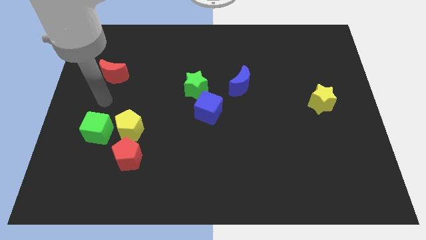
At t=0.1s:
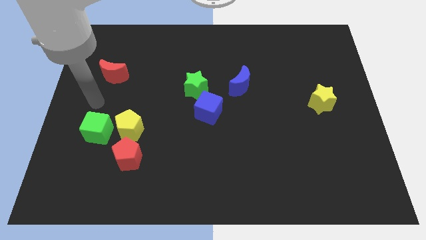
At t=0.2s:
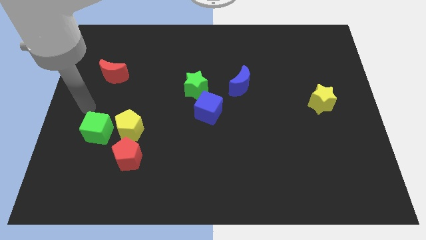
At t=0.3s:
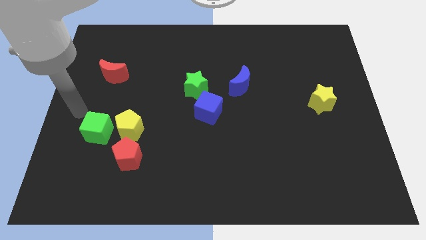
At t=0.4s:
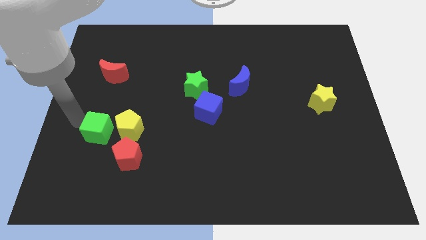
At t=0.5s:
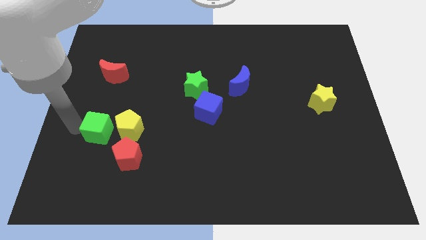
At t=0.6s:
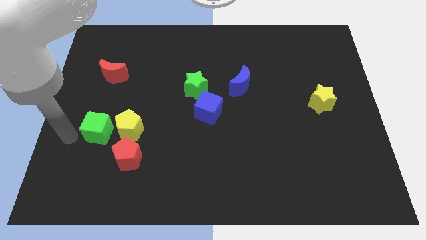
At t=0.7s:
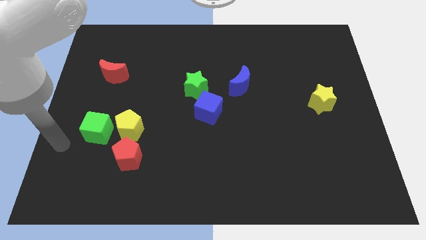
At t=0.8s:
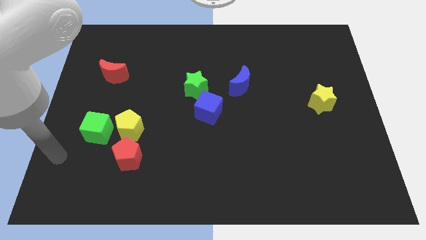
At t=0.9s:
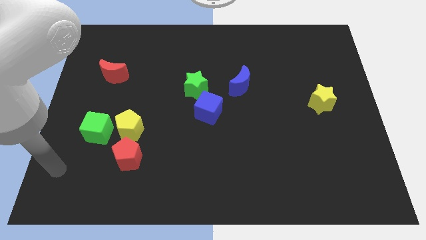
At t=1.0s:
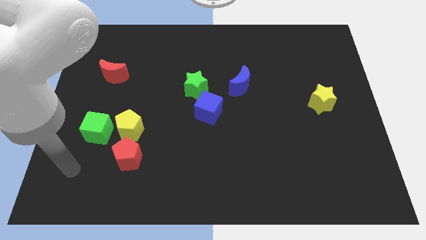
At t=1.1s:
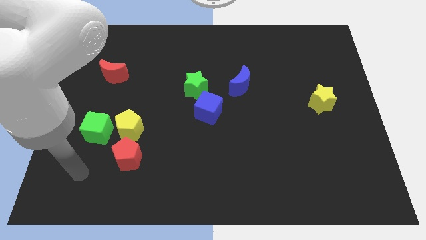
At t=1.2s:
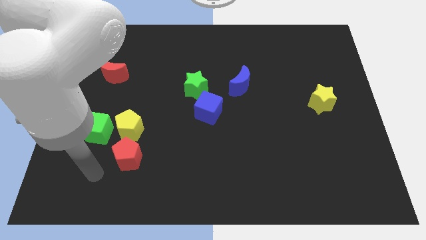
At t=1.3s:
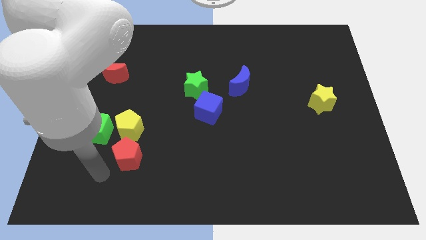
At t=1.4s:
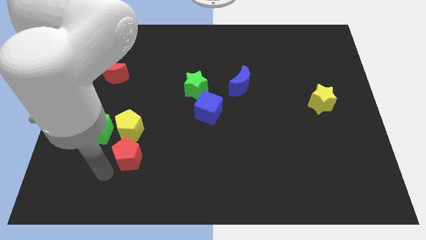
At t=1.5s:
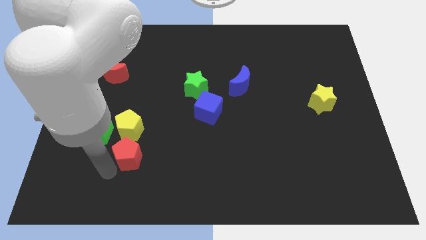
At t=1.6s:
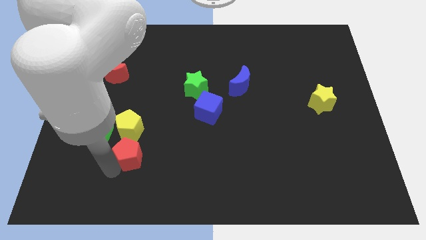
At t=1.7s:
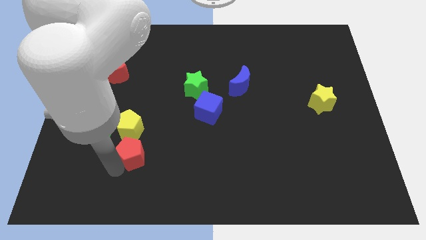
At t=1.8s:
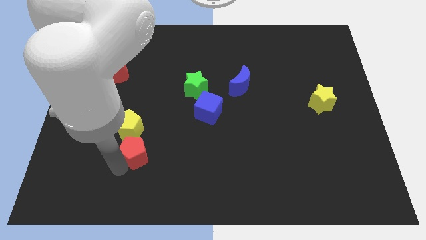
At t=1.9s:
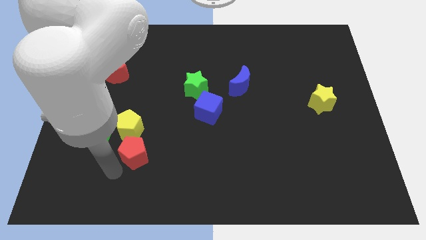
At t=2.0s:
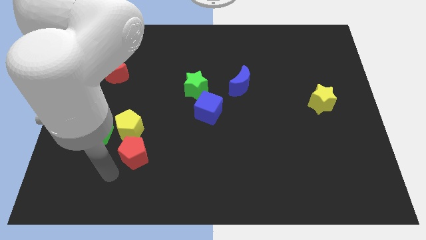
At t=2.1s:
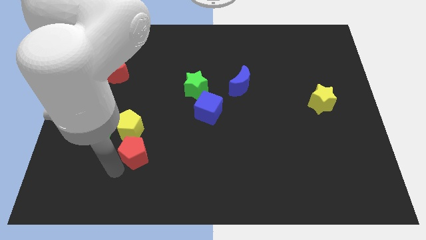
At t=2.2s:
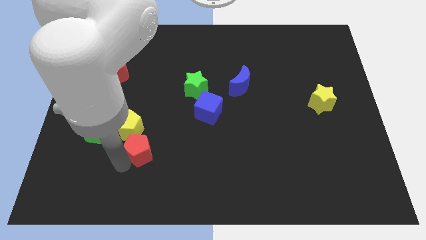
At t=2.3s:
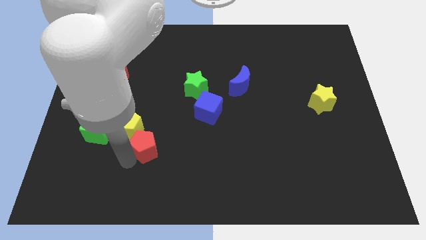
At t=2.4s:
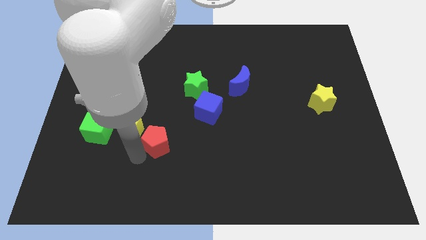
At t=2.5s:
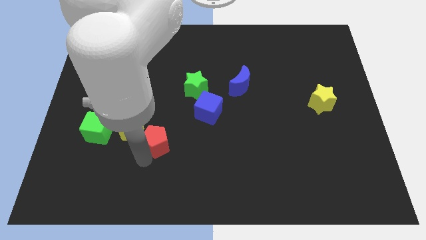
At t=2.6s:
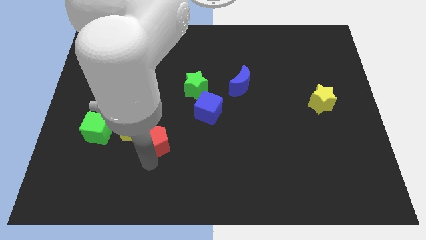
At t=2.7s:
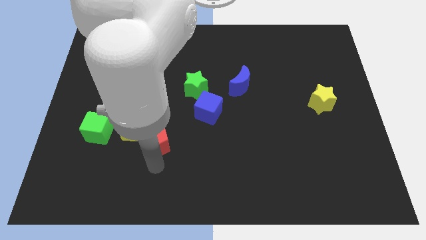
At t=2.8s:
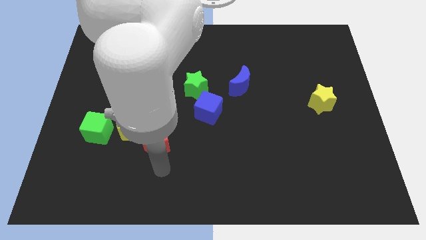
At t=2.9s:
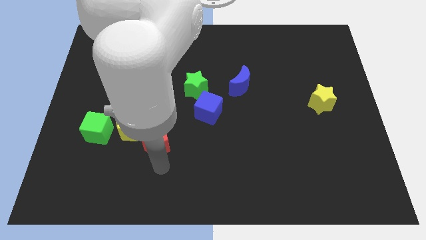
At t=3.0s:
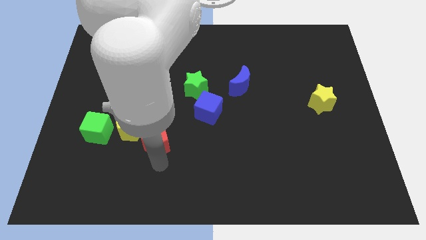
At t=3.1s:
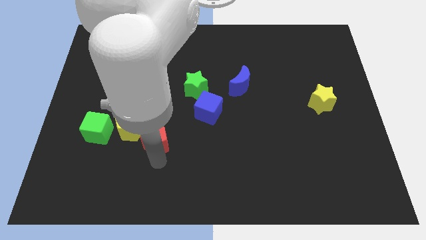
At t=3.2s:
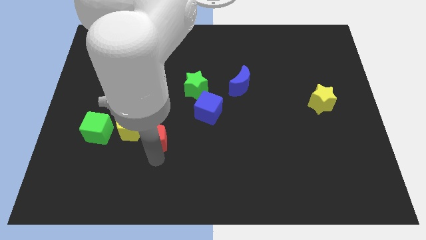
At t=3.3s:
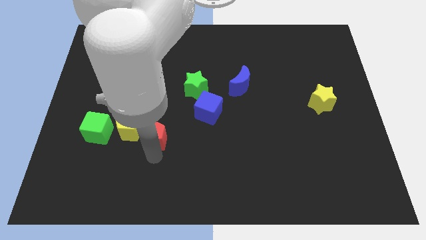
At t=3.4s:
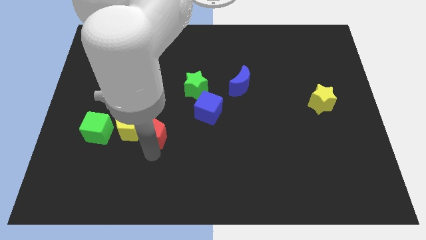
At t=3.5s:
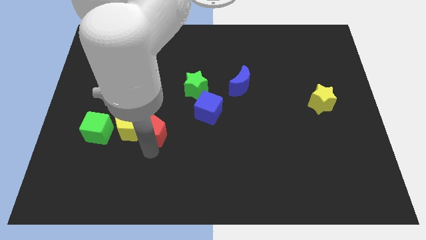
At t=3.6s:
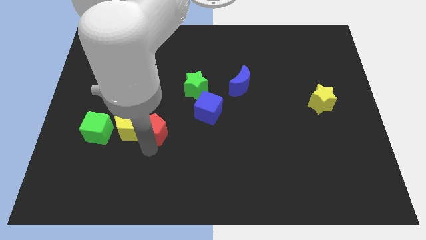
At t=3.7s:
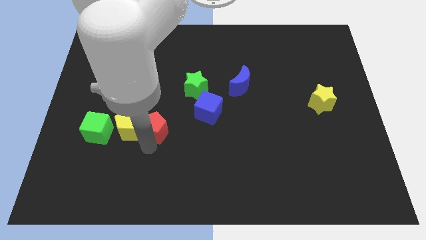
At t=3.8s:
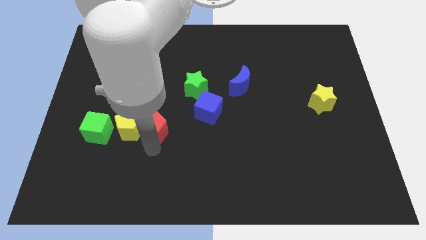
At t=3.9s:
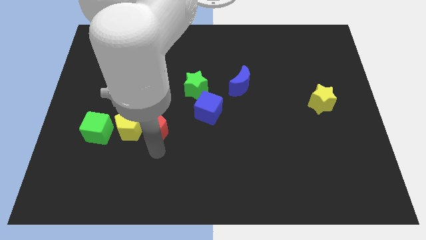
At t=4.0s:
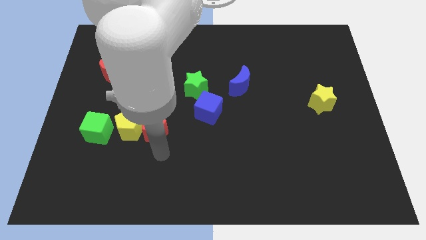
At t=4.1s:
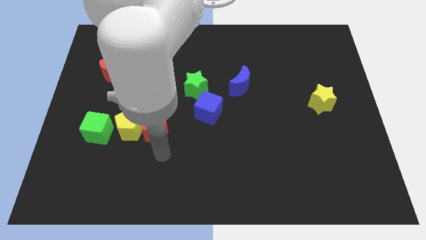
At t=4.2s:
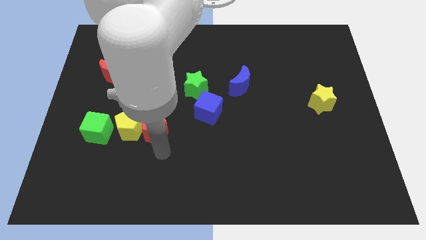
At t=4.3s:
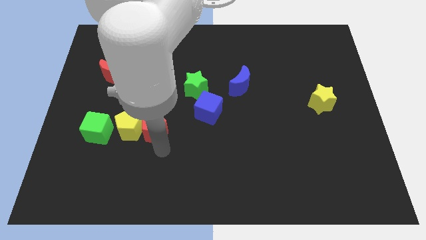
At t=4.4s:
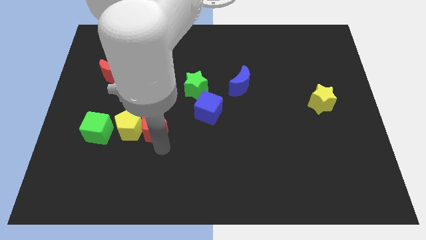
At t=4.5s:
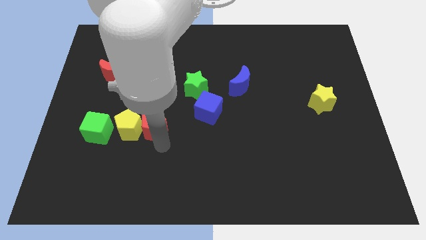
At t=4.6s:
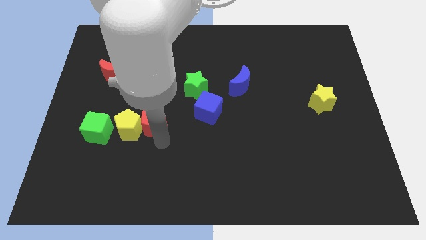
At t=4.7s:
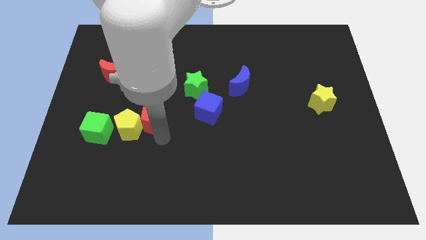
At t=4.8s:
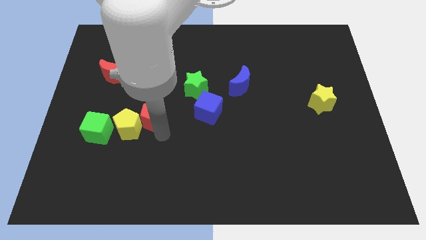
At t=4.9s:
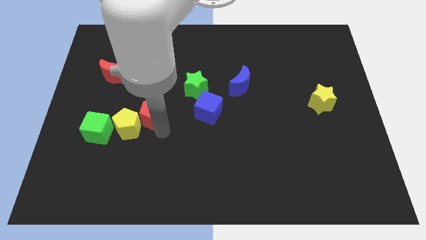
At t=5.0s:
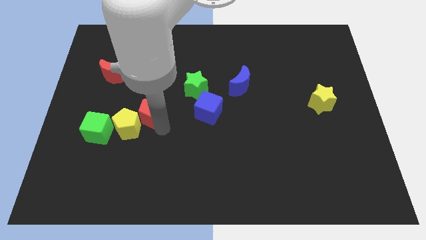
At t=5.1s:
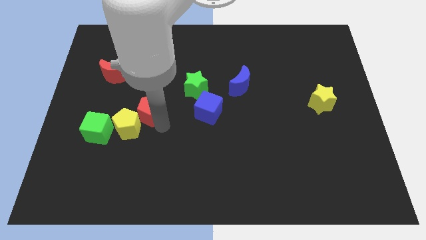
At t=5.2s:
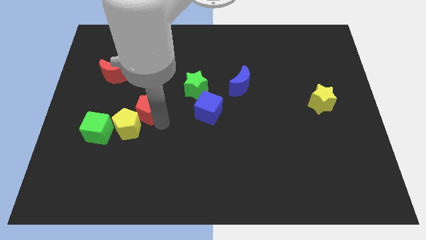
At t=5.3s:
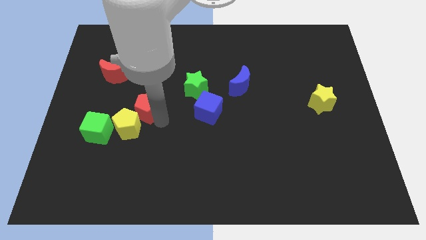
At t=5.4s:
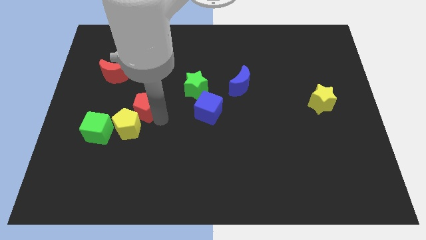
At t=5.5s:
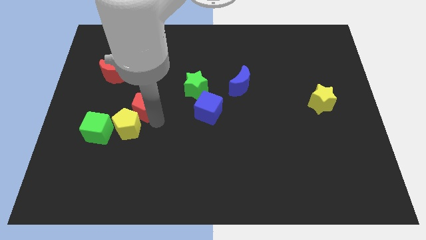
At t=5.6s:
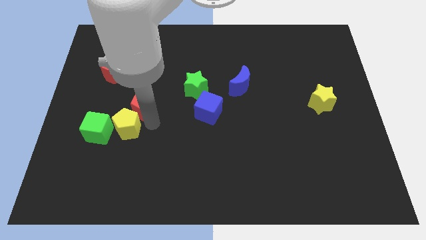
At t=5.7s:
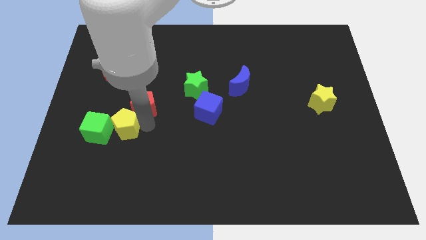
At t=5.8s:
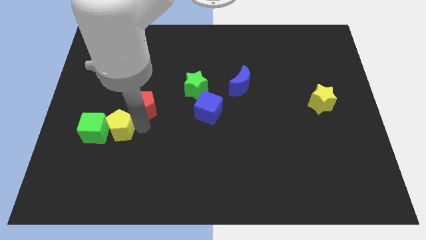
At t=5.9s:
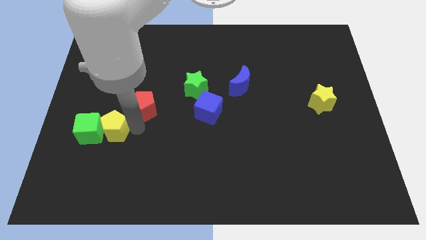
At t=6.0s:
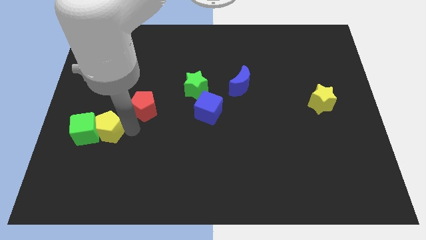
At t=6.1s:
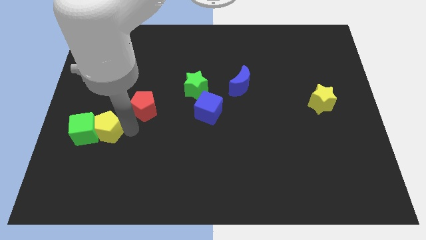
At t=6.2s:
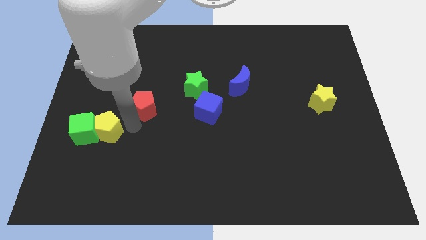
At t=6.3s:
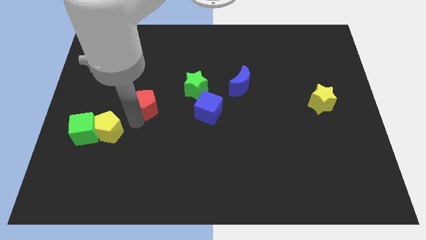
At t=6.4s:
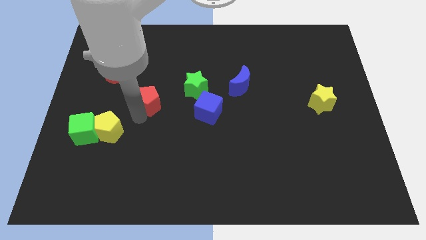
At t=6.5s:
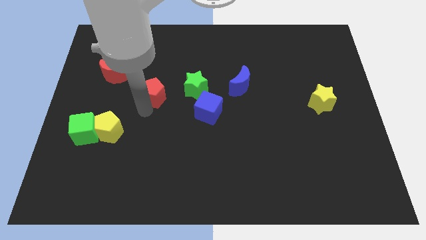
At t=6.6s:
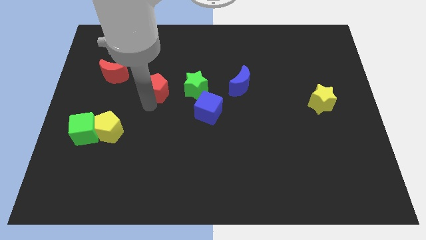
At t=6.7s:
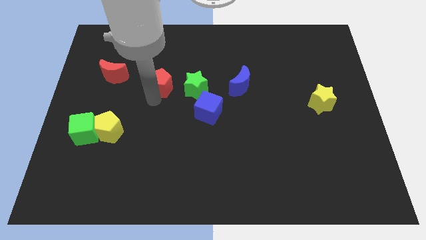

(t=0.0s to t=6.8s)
push the red pentagon just right of the red moon

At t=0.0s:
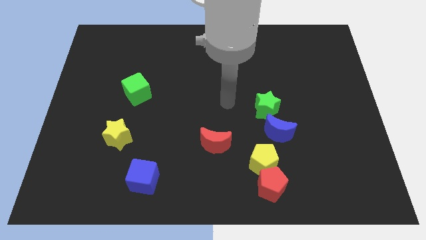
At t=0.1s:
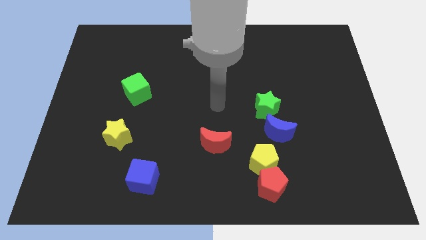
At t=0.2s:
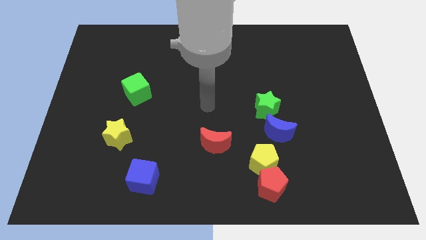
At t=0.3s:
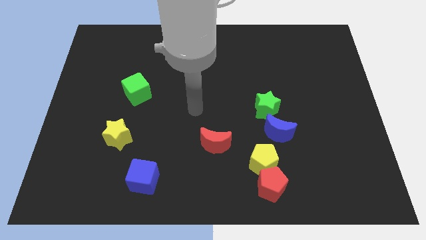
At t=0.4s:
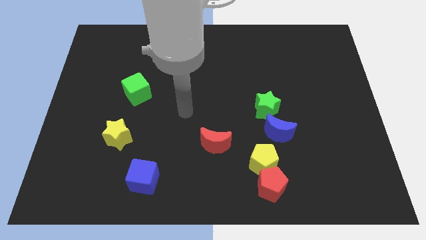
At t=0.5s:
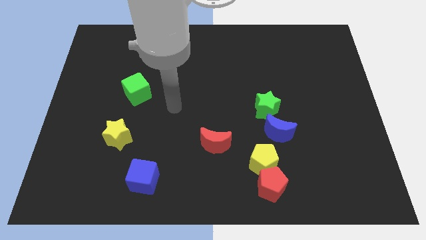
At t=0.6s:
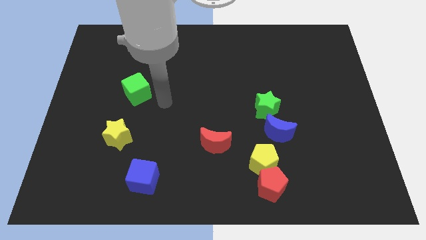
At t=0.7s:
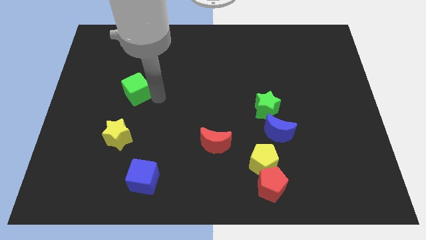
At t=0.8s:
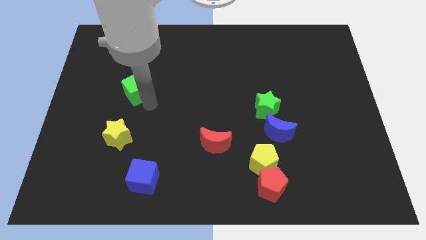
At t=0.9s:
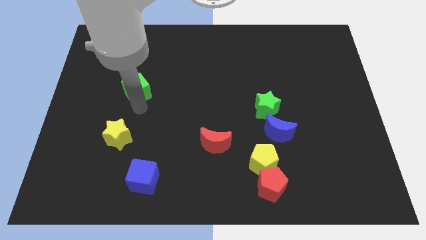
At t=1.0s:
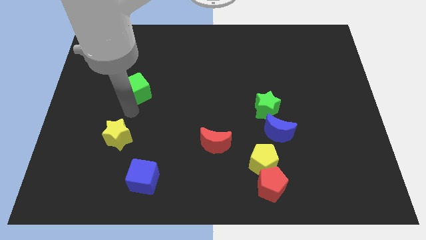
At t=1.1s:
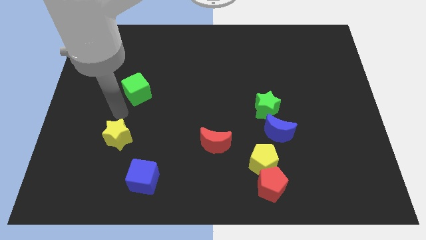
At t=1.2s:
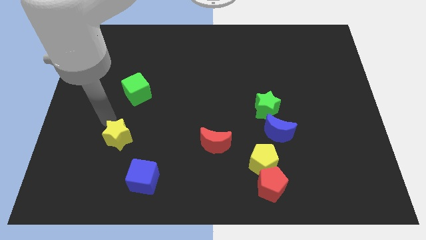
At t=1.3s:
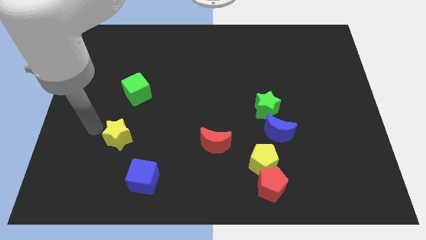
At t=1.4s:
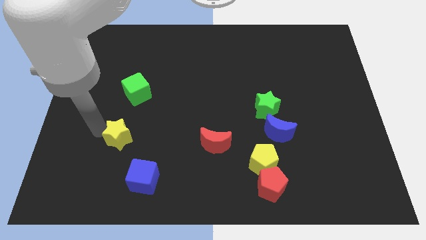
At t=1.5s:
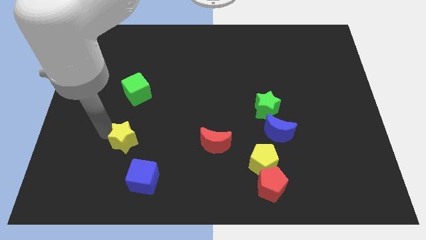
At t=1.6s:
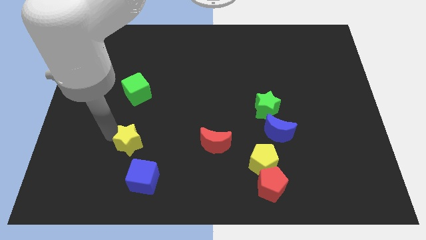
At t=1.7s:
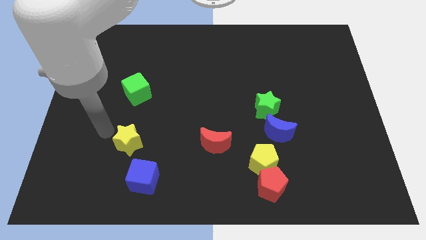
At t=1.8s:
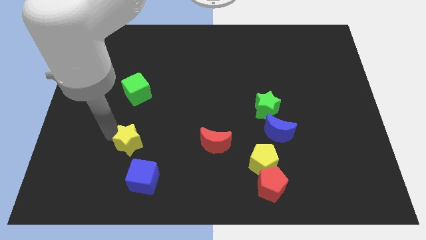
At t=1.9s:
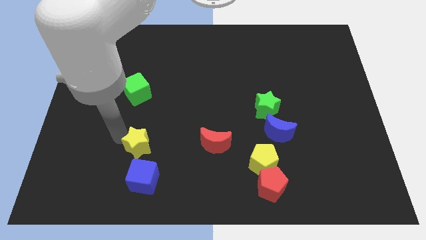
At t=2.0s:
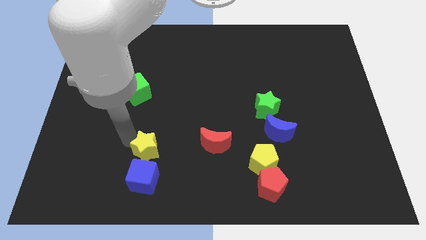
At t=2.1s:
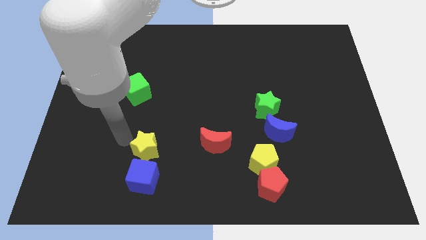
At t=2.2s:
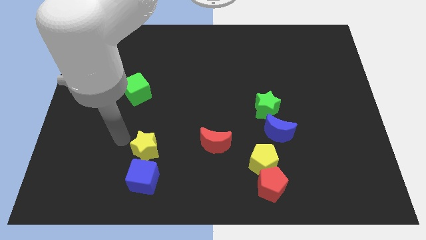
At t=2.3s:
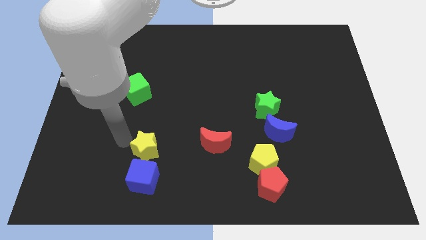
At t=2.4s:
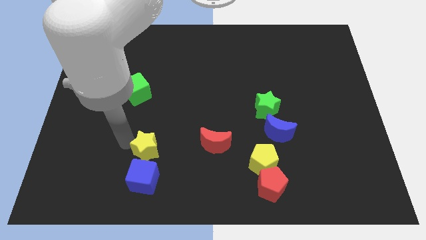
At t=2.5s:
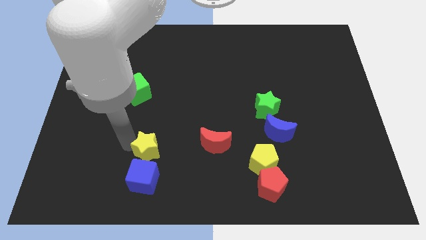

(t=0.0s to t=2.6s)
move the yellow star diagonally up and to the right of the blue cube
